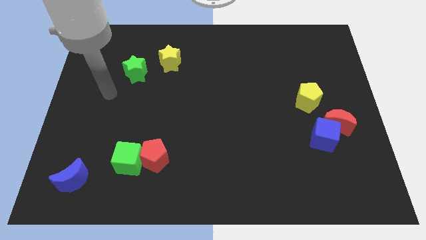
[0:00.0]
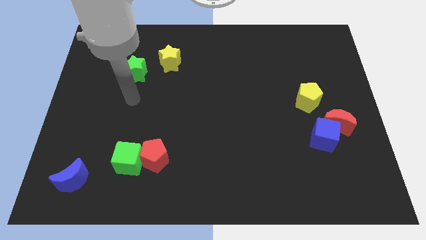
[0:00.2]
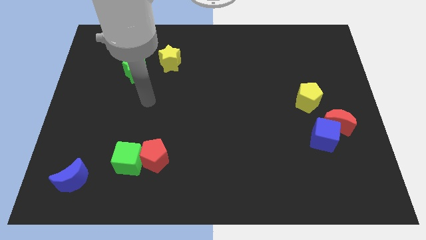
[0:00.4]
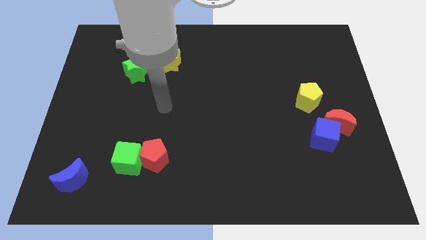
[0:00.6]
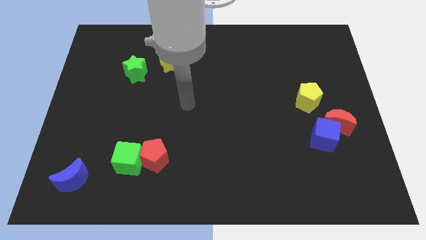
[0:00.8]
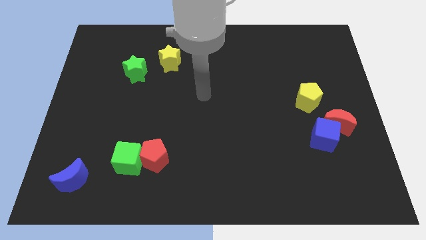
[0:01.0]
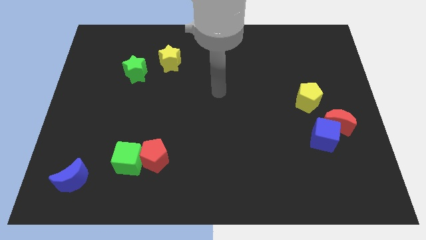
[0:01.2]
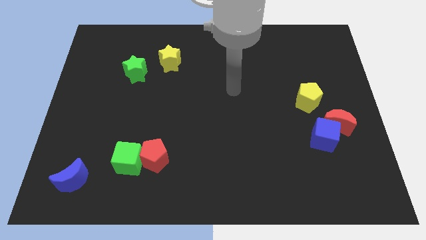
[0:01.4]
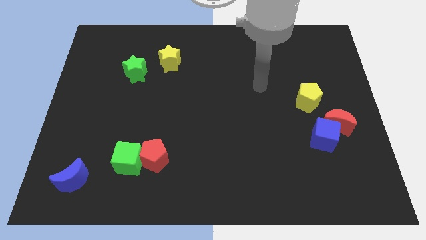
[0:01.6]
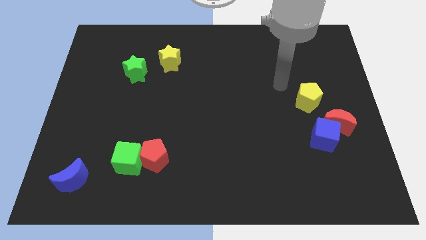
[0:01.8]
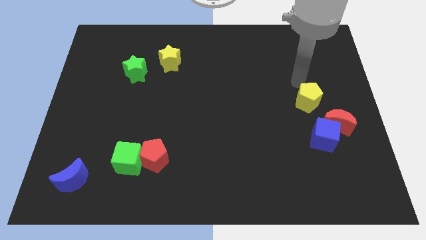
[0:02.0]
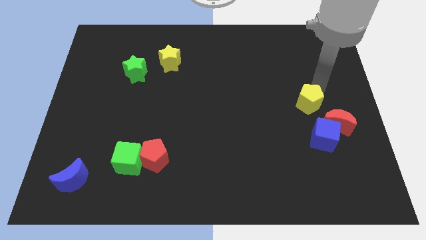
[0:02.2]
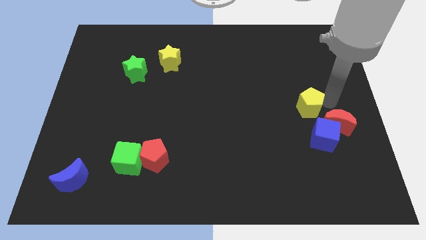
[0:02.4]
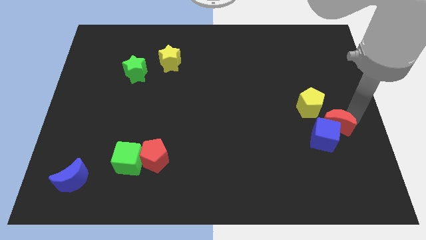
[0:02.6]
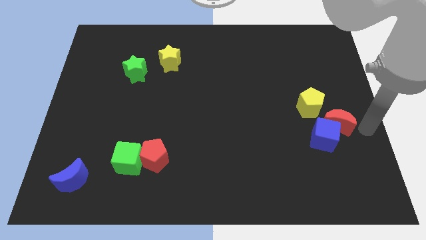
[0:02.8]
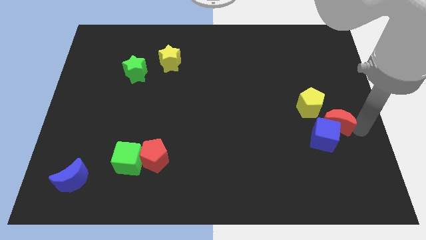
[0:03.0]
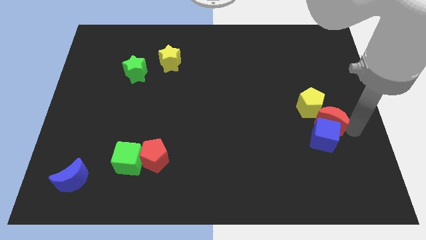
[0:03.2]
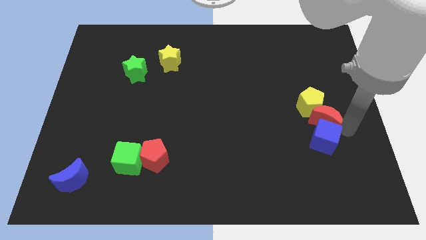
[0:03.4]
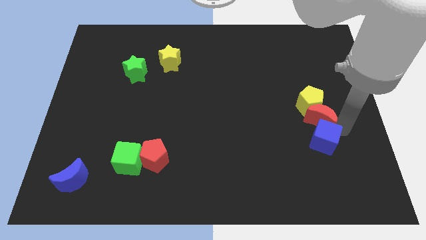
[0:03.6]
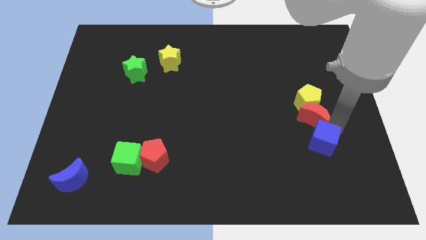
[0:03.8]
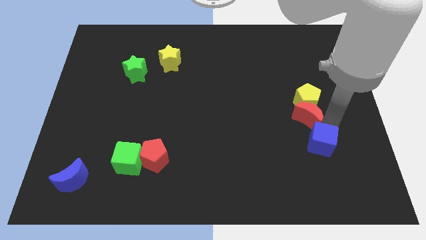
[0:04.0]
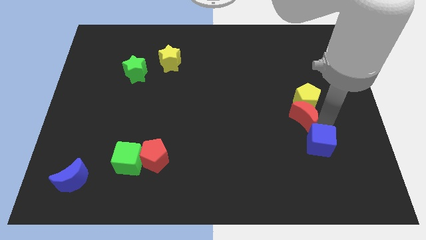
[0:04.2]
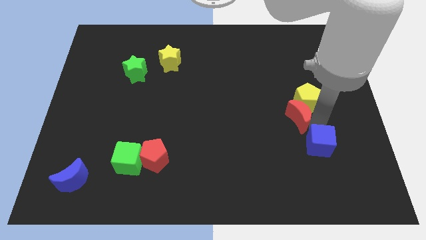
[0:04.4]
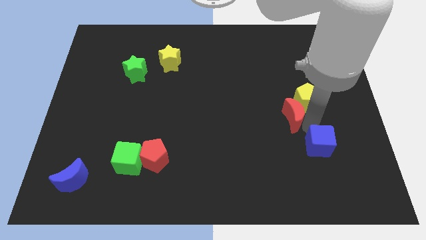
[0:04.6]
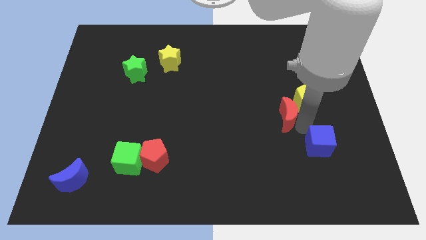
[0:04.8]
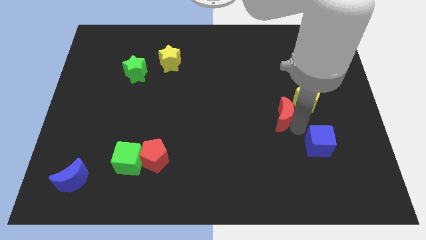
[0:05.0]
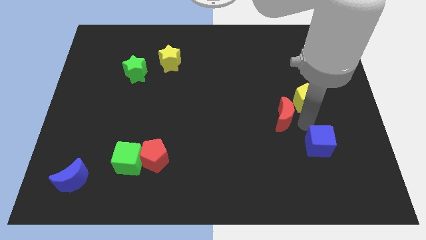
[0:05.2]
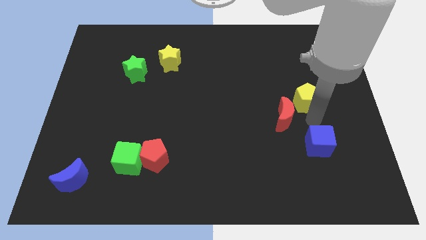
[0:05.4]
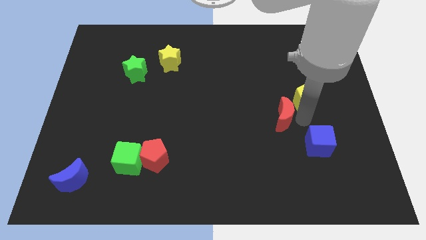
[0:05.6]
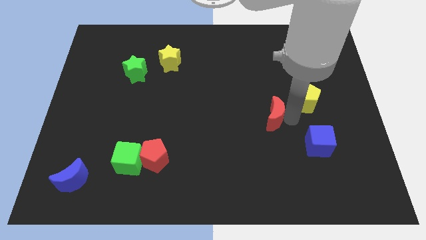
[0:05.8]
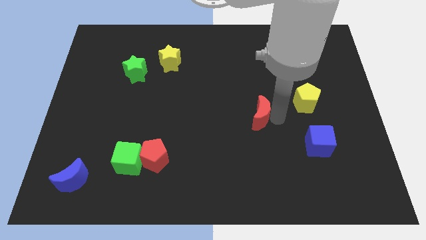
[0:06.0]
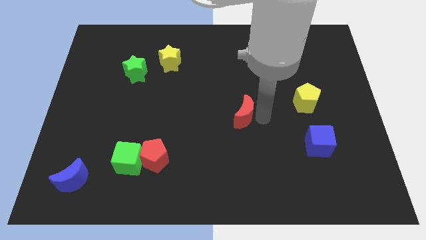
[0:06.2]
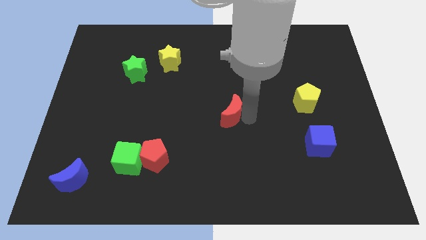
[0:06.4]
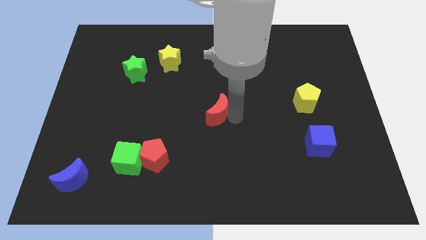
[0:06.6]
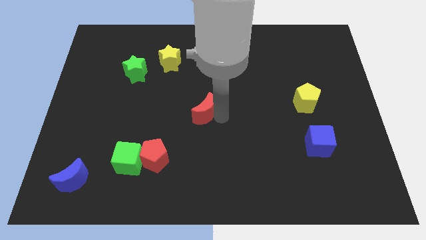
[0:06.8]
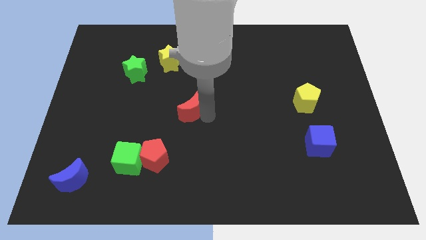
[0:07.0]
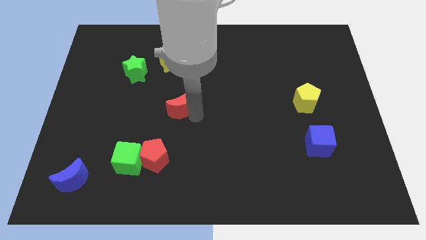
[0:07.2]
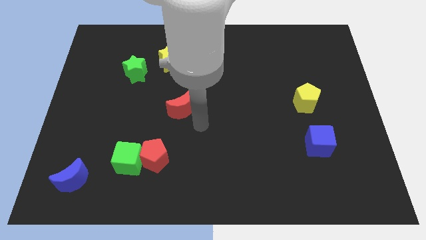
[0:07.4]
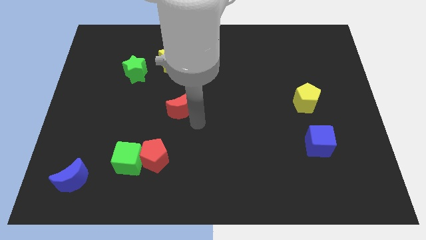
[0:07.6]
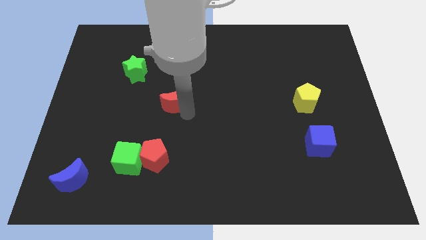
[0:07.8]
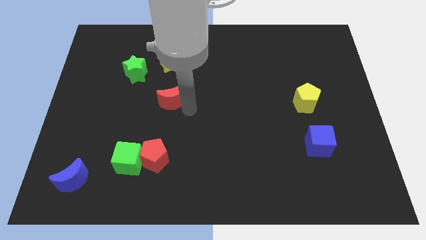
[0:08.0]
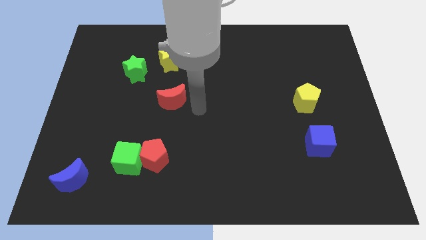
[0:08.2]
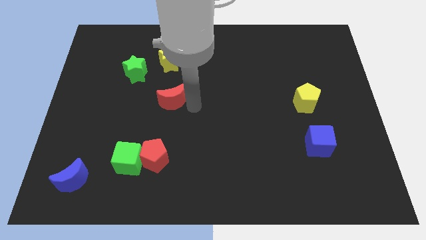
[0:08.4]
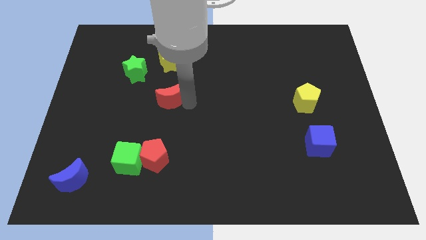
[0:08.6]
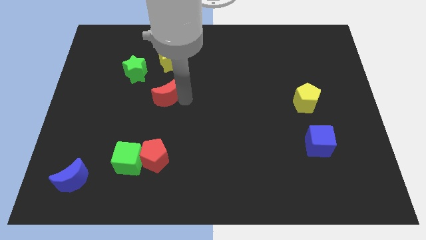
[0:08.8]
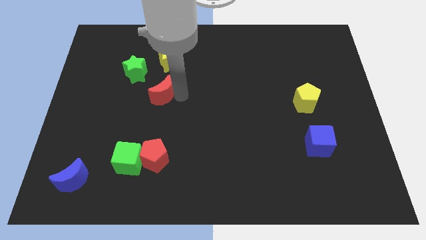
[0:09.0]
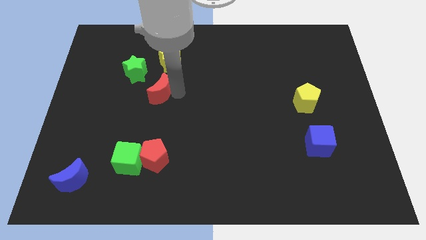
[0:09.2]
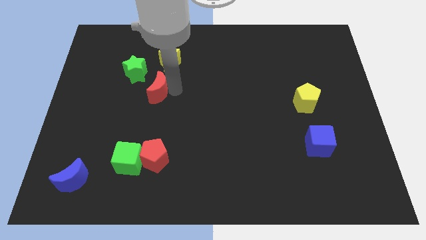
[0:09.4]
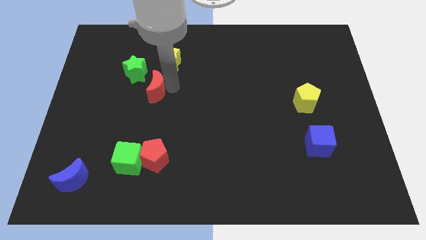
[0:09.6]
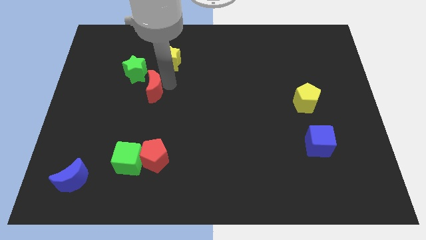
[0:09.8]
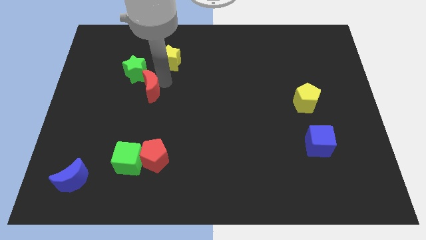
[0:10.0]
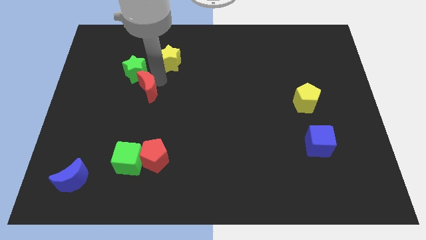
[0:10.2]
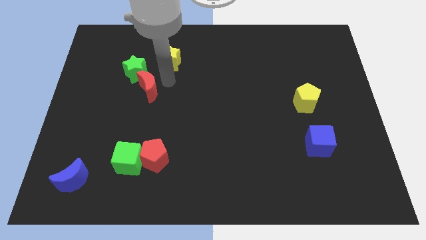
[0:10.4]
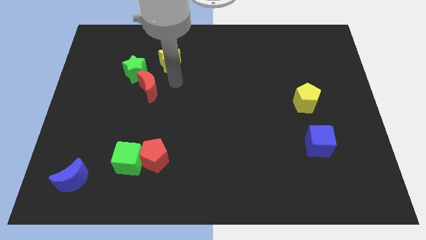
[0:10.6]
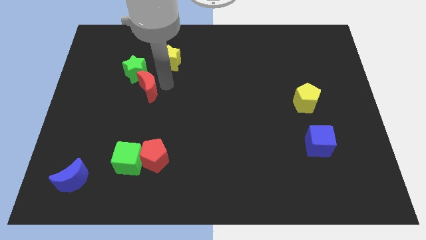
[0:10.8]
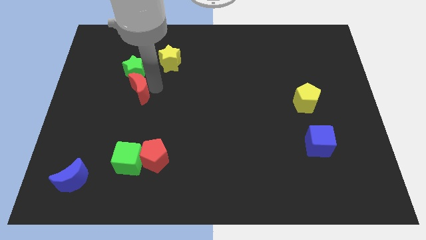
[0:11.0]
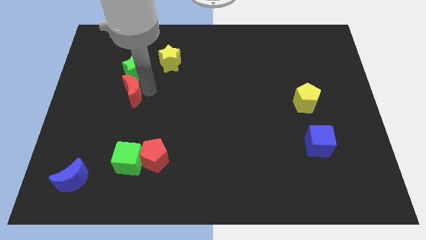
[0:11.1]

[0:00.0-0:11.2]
push the red moon to the bottom left of the green star

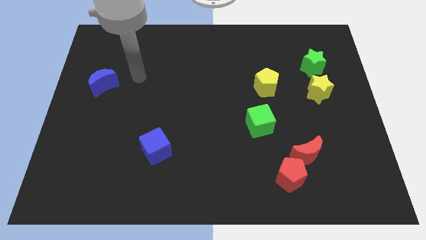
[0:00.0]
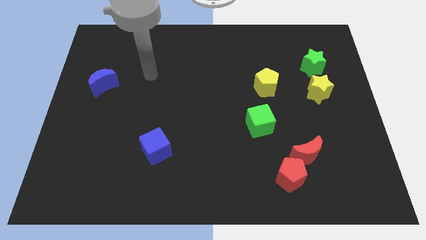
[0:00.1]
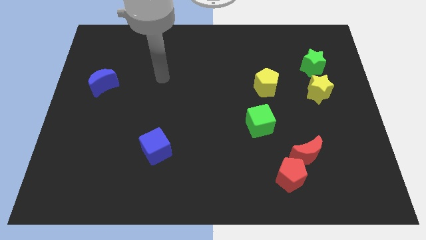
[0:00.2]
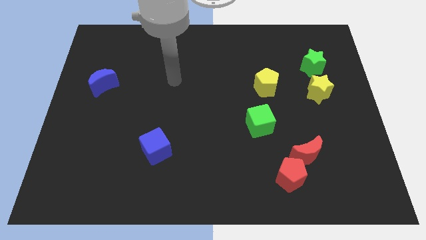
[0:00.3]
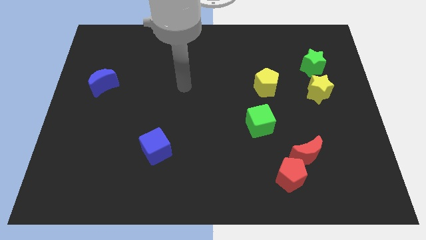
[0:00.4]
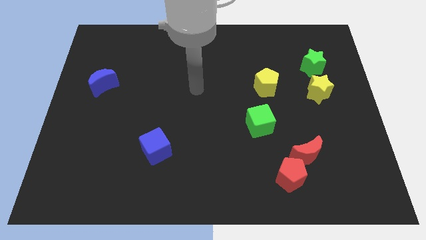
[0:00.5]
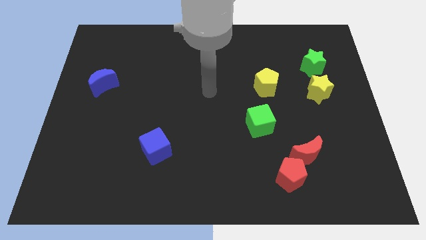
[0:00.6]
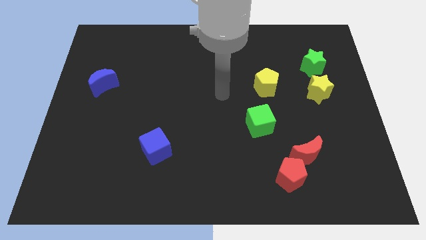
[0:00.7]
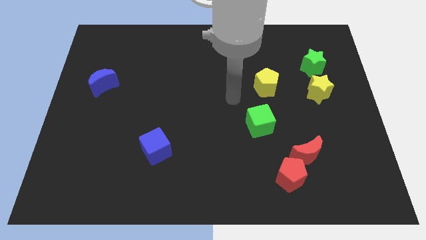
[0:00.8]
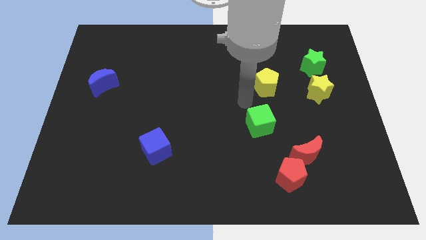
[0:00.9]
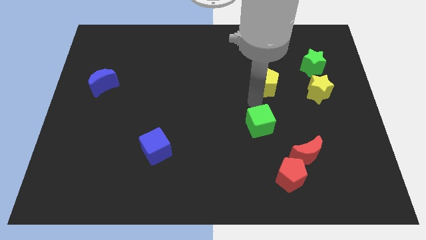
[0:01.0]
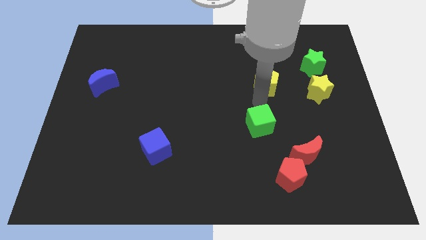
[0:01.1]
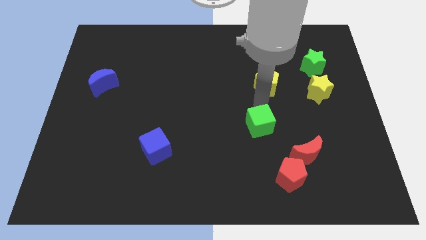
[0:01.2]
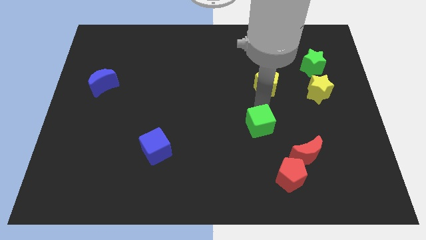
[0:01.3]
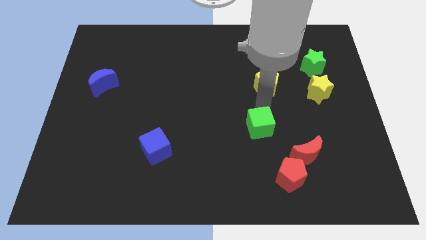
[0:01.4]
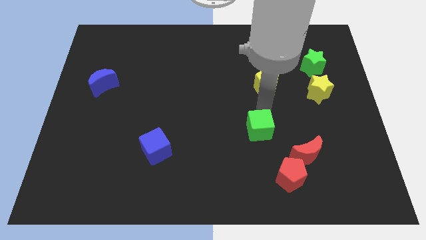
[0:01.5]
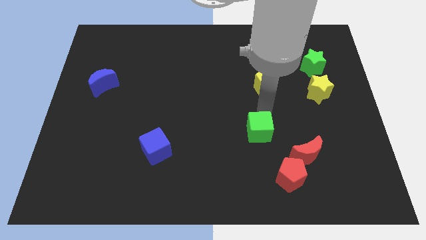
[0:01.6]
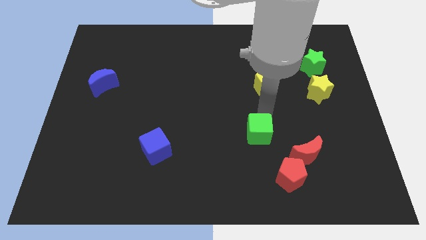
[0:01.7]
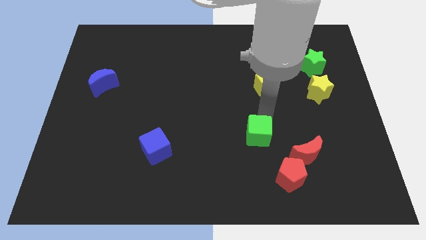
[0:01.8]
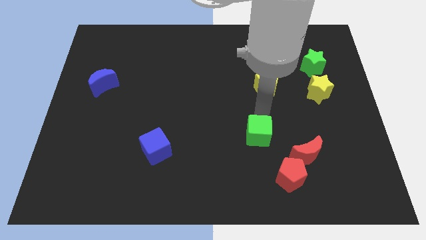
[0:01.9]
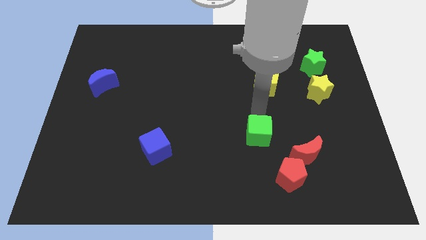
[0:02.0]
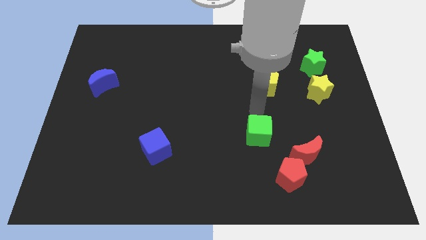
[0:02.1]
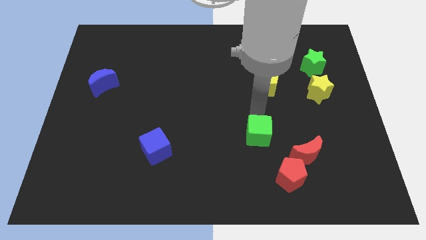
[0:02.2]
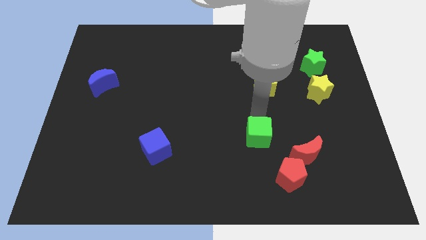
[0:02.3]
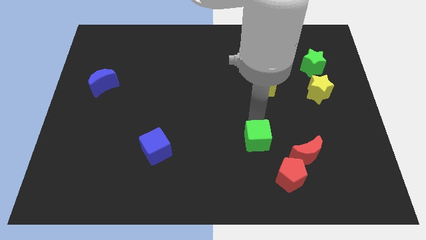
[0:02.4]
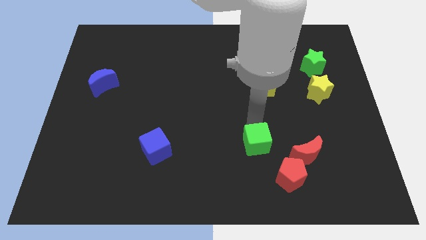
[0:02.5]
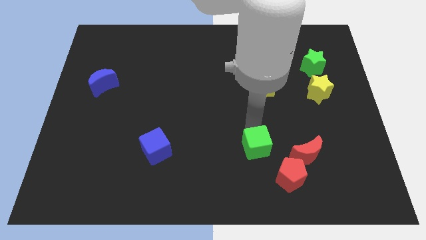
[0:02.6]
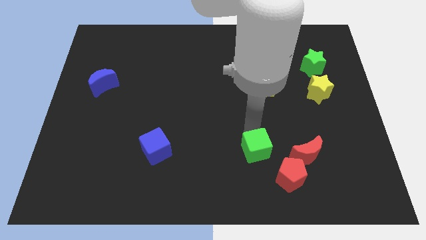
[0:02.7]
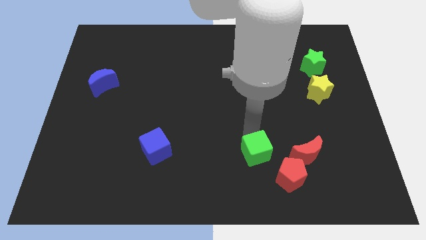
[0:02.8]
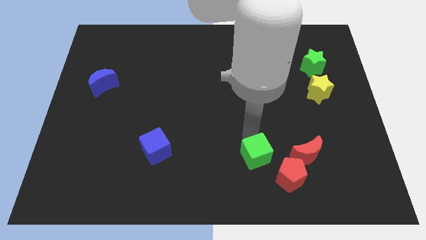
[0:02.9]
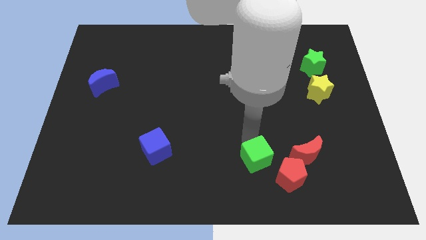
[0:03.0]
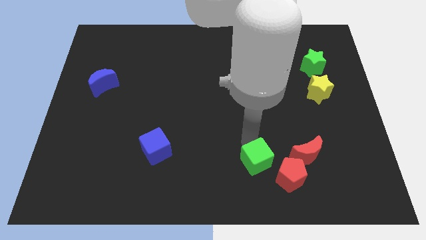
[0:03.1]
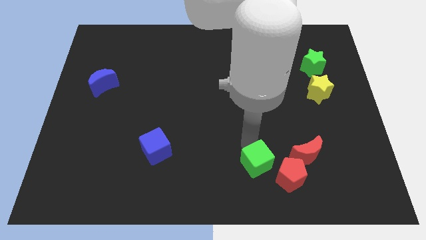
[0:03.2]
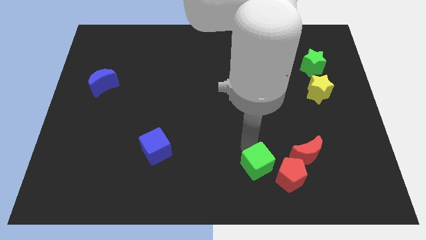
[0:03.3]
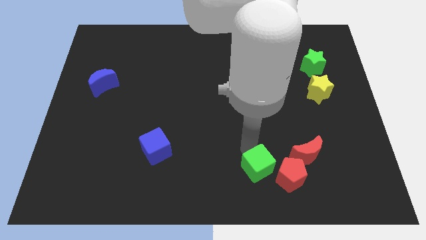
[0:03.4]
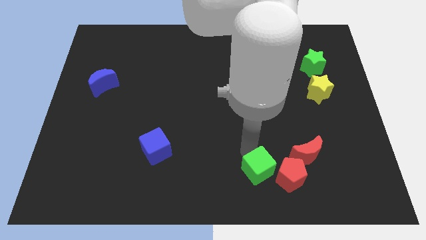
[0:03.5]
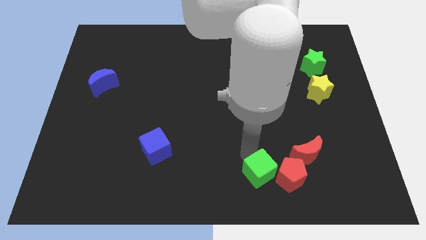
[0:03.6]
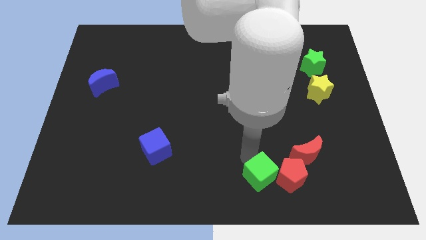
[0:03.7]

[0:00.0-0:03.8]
slide the green cube to the bottom left of the red moon
